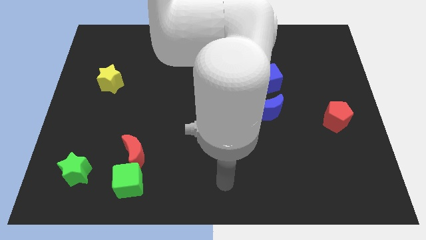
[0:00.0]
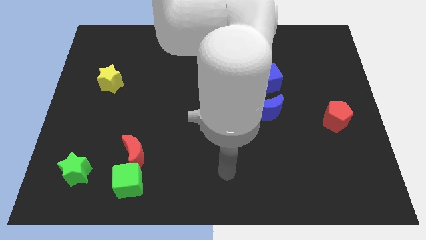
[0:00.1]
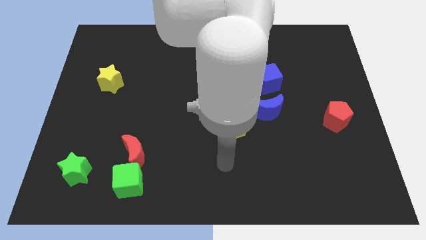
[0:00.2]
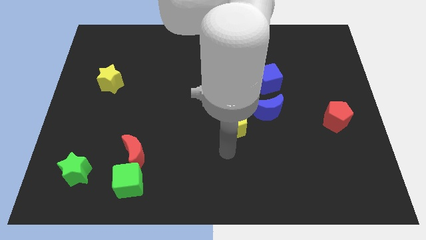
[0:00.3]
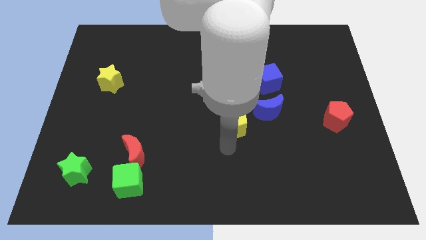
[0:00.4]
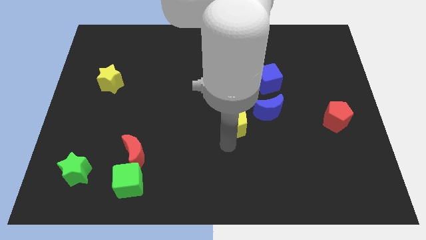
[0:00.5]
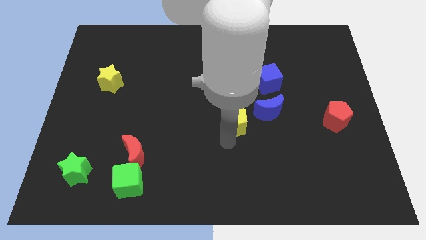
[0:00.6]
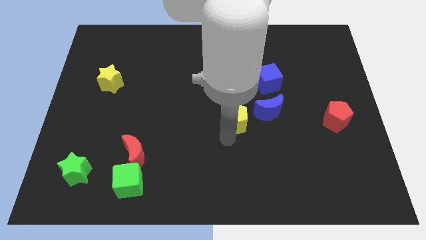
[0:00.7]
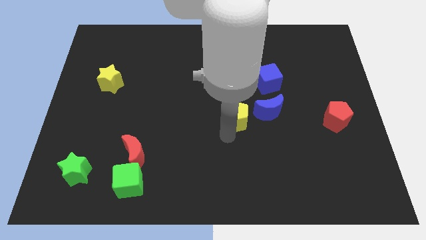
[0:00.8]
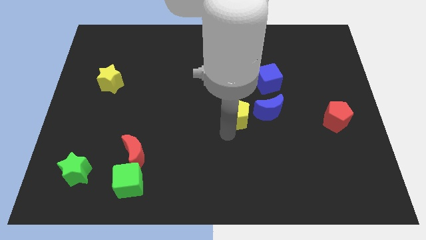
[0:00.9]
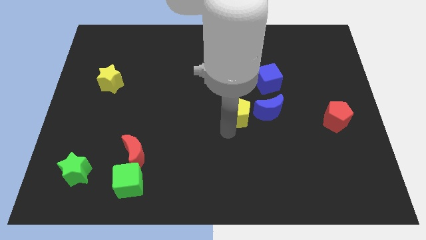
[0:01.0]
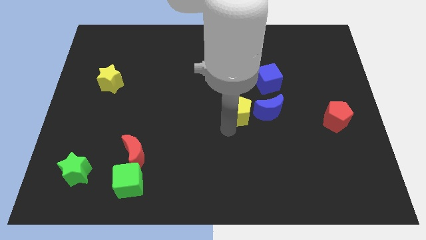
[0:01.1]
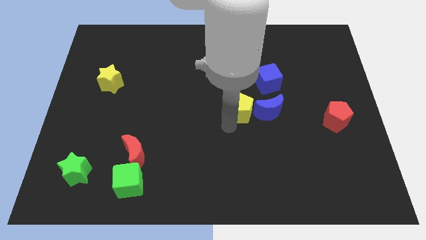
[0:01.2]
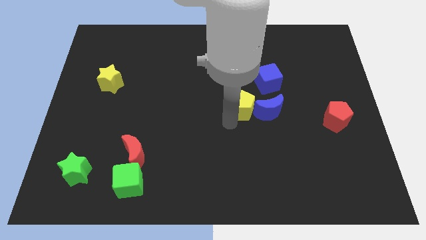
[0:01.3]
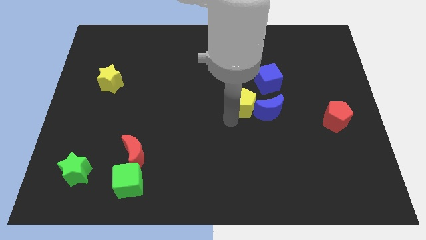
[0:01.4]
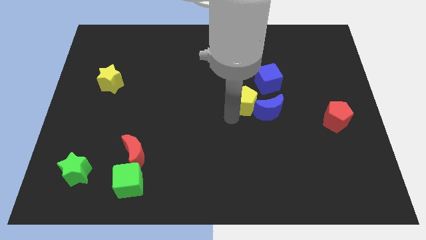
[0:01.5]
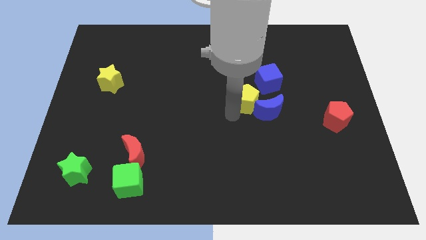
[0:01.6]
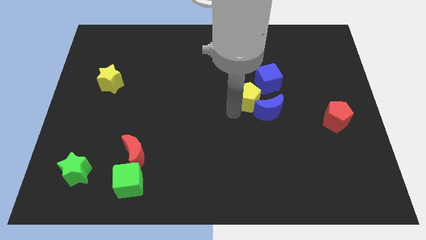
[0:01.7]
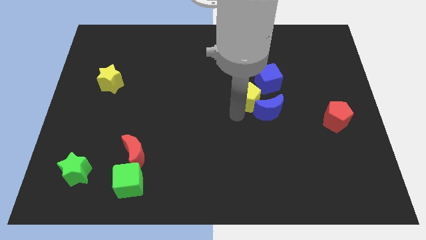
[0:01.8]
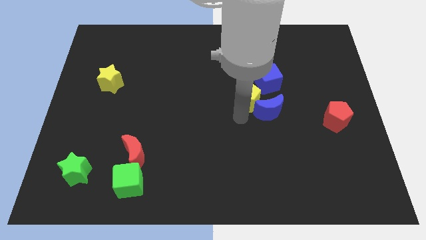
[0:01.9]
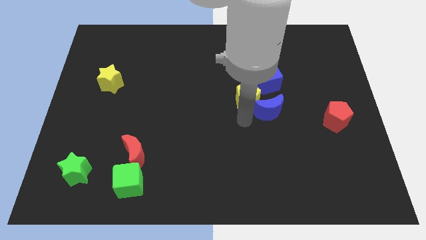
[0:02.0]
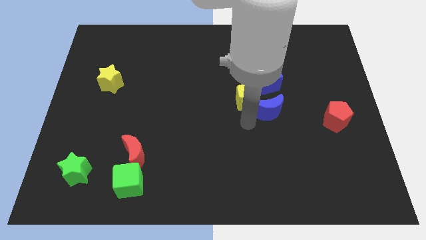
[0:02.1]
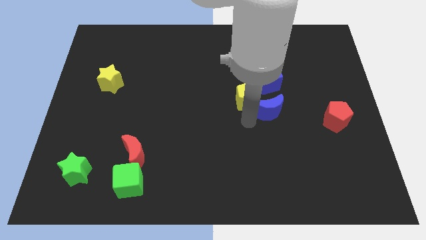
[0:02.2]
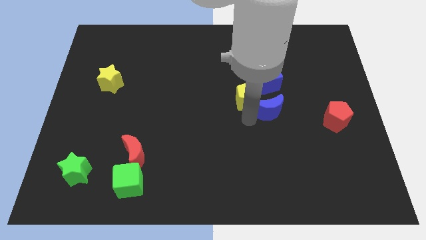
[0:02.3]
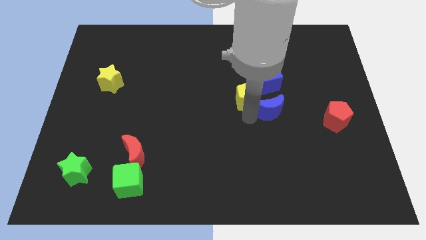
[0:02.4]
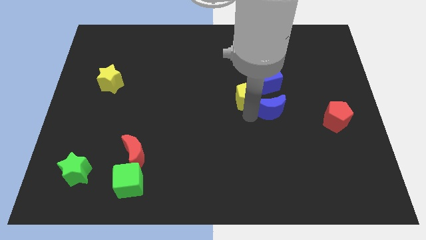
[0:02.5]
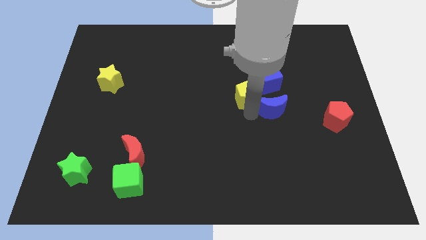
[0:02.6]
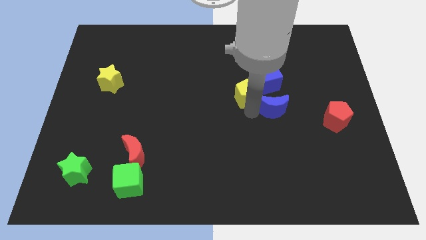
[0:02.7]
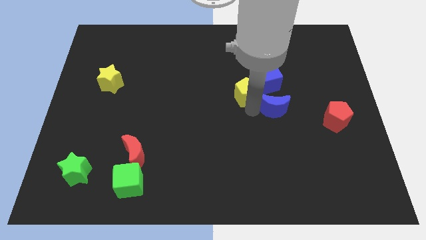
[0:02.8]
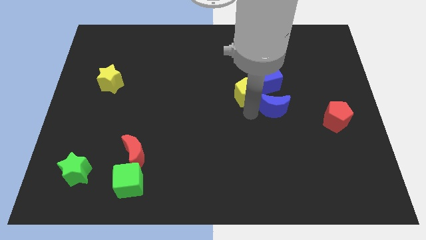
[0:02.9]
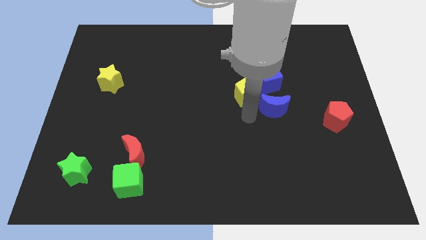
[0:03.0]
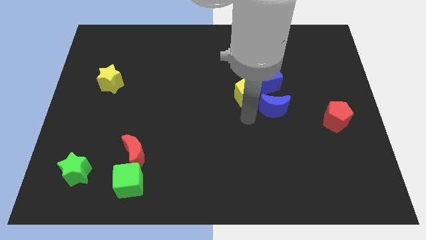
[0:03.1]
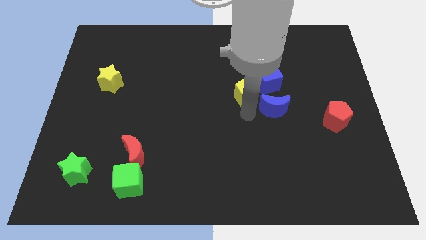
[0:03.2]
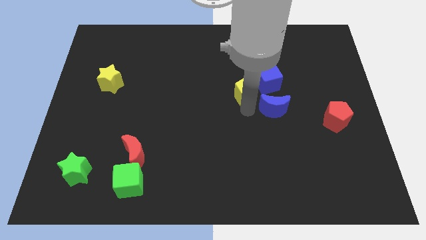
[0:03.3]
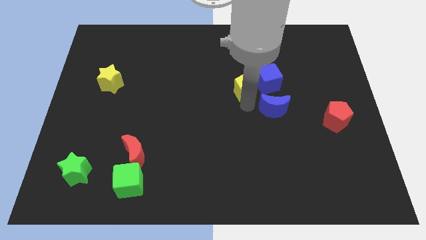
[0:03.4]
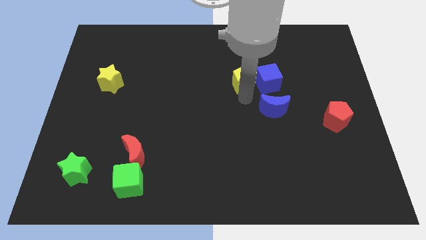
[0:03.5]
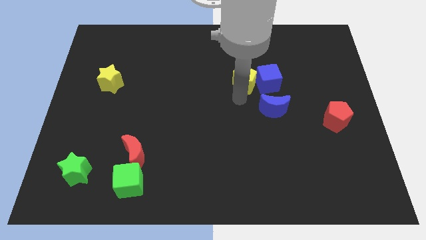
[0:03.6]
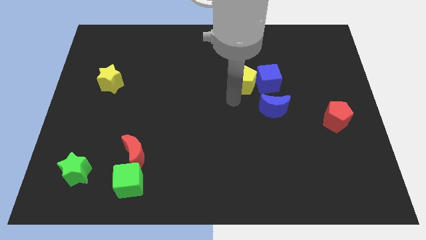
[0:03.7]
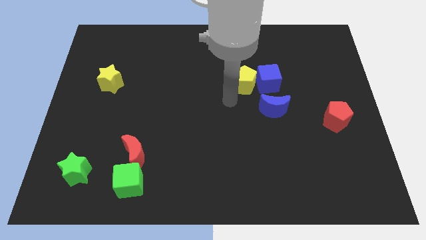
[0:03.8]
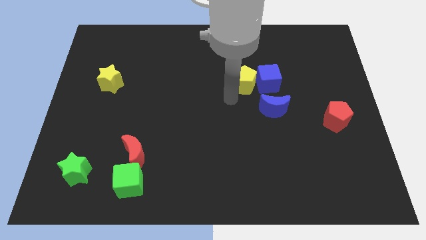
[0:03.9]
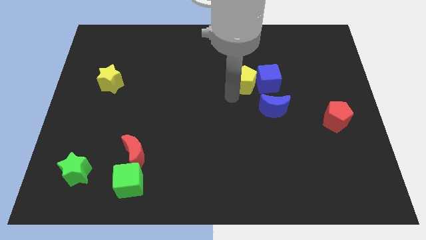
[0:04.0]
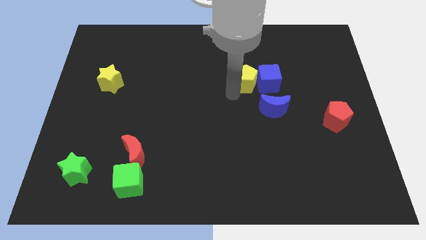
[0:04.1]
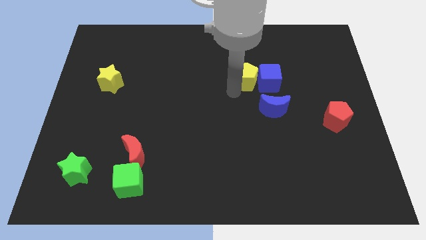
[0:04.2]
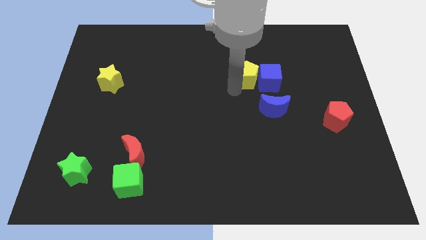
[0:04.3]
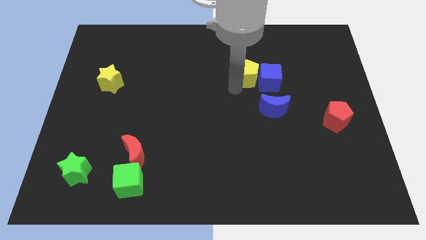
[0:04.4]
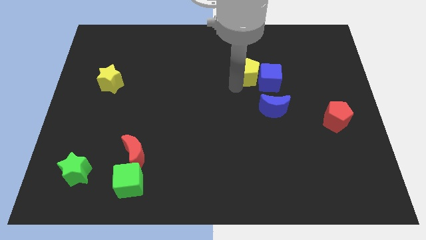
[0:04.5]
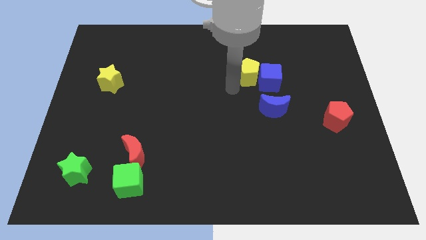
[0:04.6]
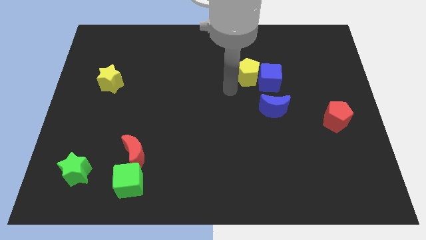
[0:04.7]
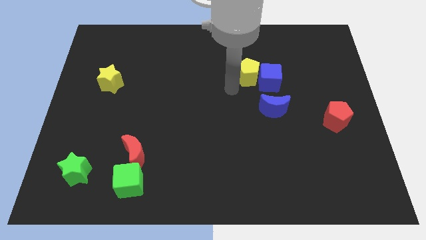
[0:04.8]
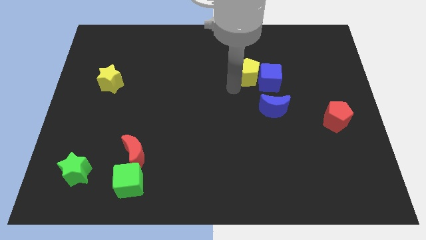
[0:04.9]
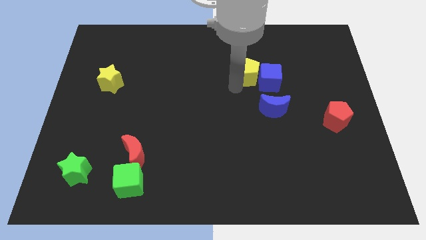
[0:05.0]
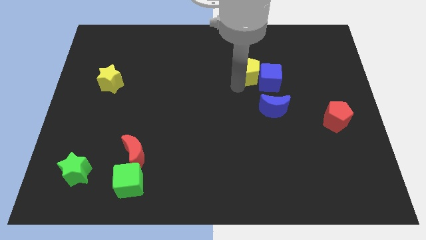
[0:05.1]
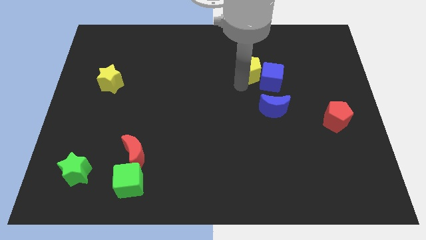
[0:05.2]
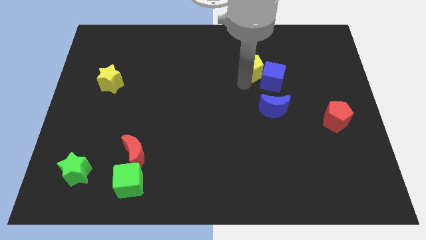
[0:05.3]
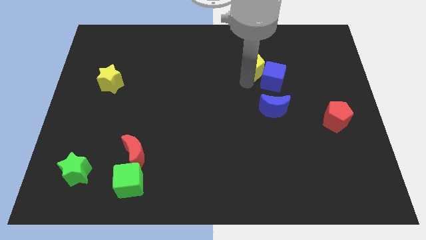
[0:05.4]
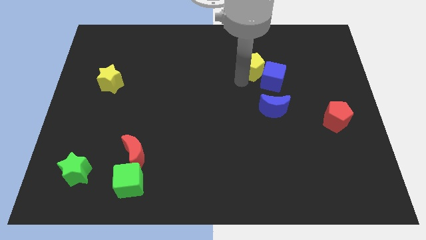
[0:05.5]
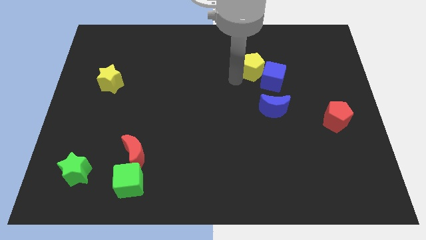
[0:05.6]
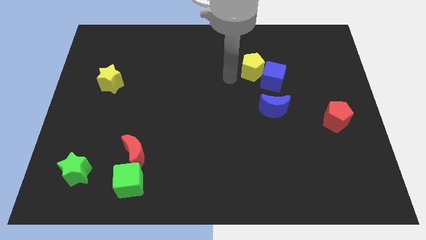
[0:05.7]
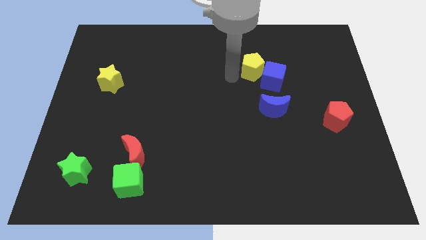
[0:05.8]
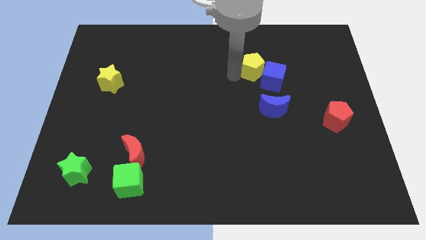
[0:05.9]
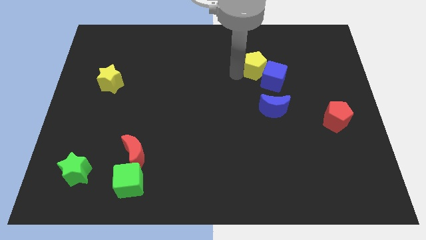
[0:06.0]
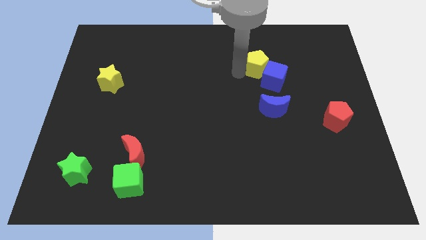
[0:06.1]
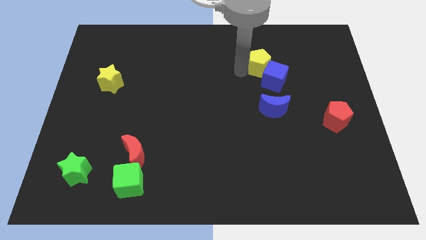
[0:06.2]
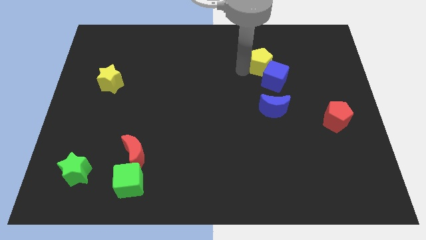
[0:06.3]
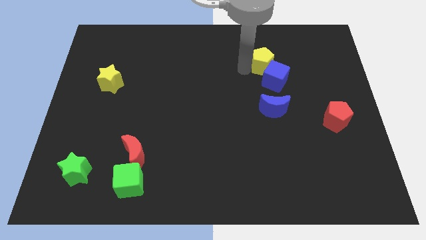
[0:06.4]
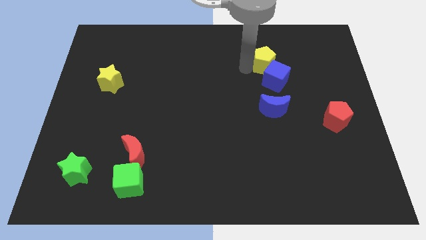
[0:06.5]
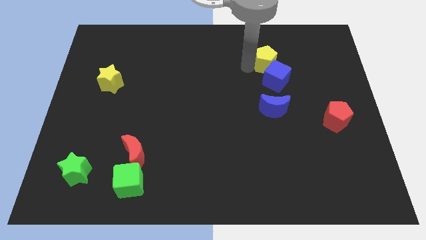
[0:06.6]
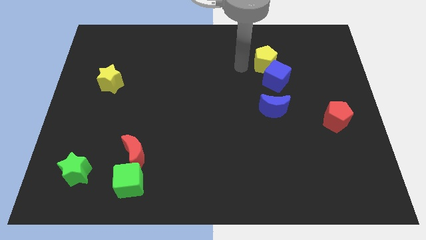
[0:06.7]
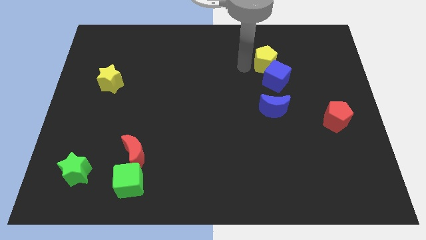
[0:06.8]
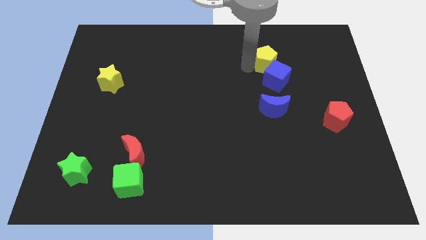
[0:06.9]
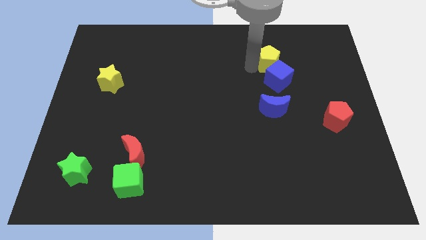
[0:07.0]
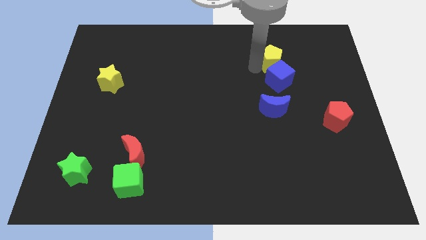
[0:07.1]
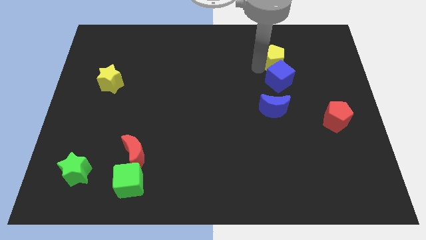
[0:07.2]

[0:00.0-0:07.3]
push the yellow pentagon up and to the right

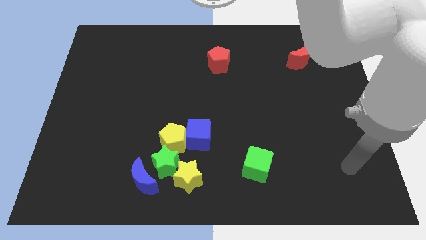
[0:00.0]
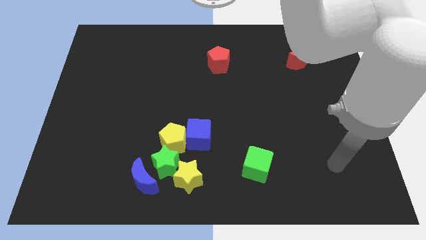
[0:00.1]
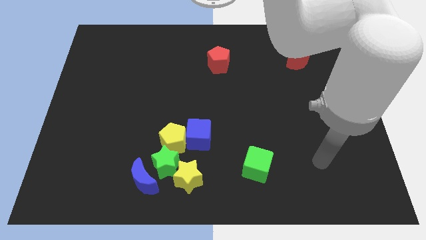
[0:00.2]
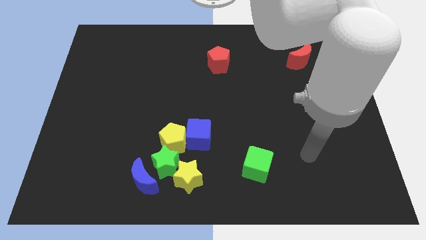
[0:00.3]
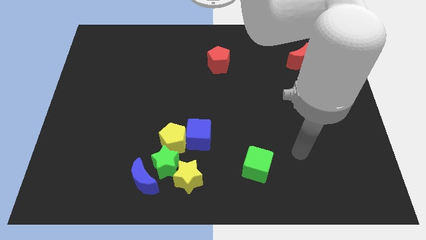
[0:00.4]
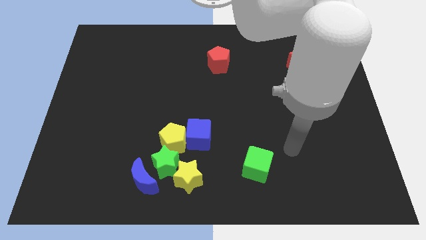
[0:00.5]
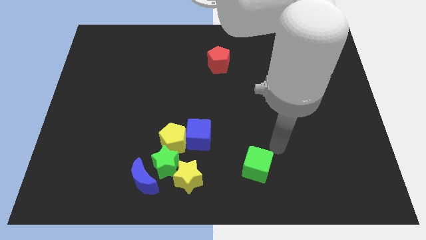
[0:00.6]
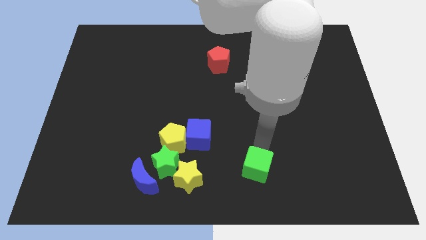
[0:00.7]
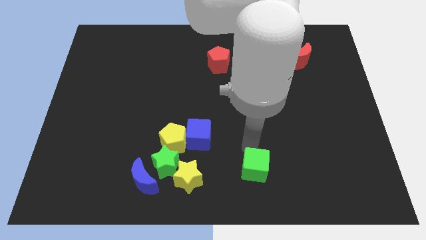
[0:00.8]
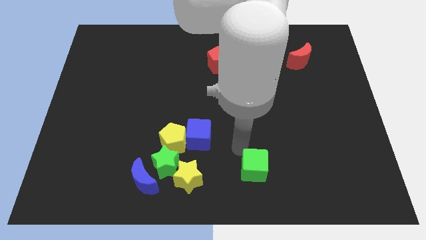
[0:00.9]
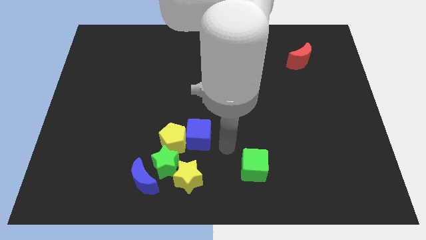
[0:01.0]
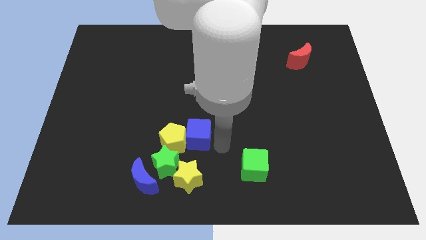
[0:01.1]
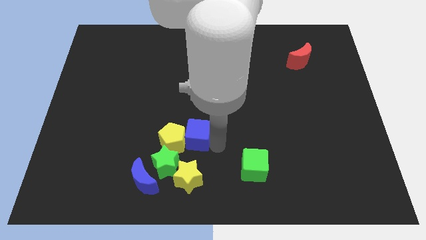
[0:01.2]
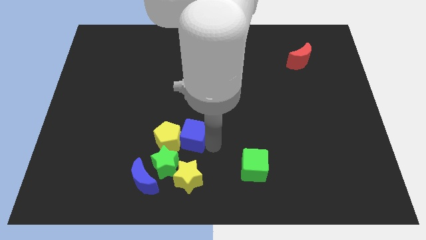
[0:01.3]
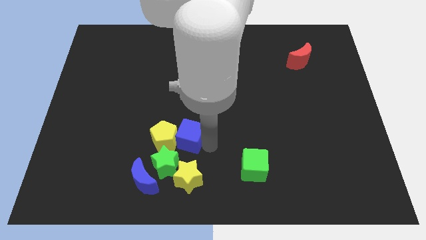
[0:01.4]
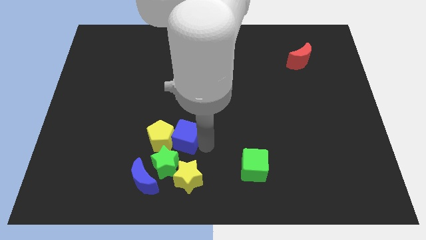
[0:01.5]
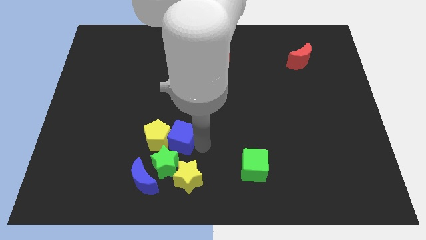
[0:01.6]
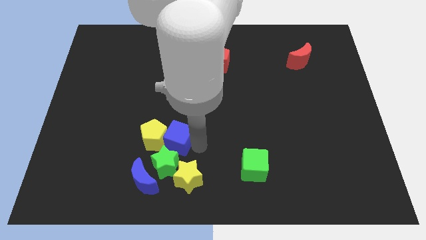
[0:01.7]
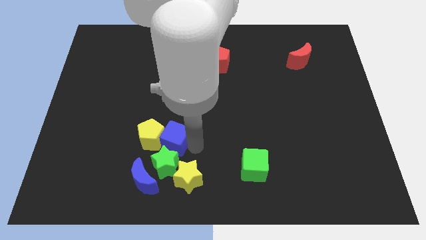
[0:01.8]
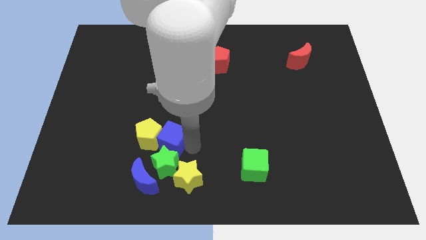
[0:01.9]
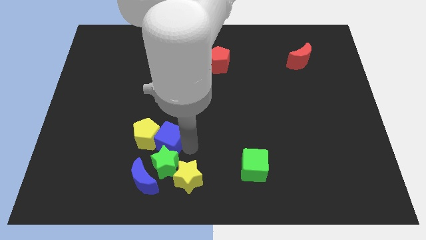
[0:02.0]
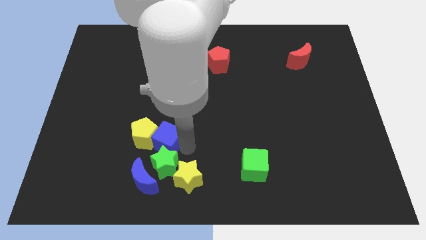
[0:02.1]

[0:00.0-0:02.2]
slide the blue cube left a little
